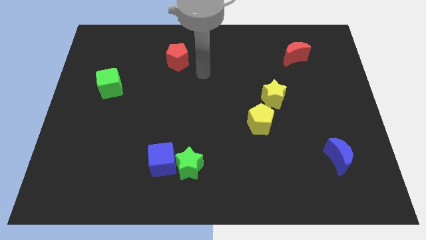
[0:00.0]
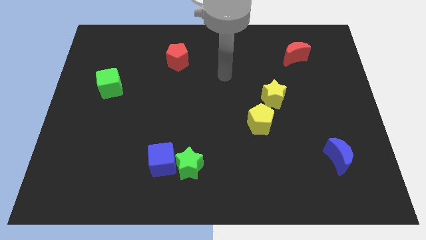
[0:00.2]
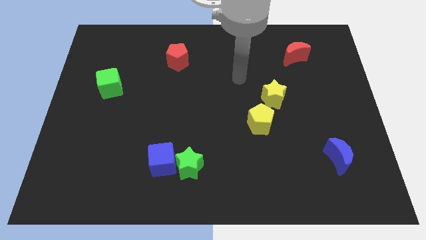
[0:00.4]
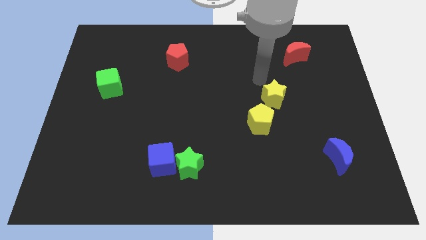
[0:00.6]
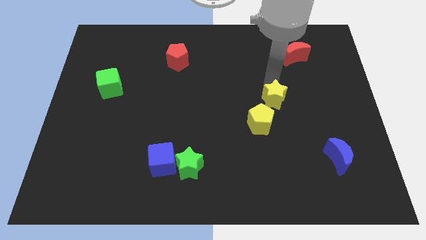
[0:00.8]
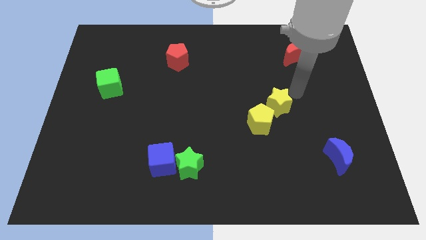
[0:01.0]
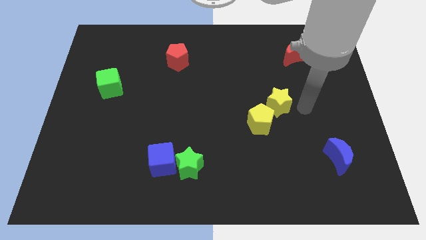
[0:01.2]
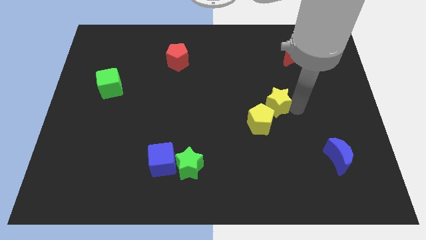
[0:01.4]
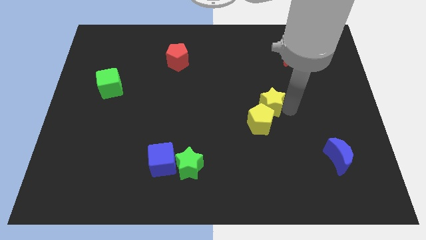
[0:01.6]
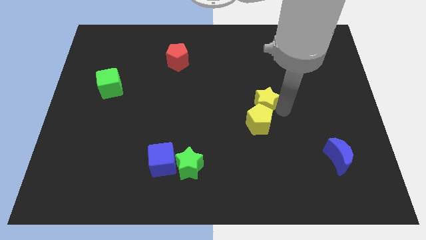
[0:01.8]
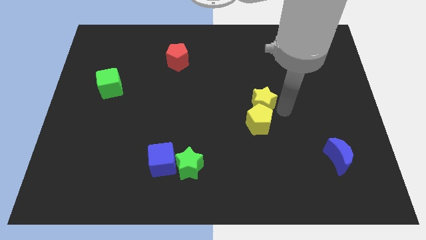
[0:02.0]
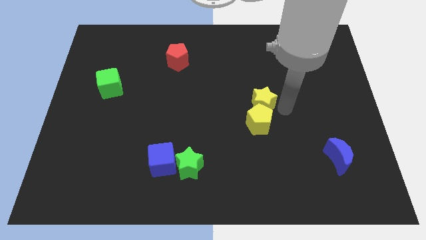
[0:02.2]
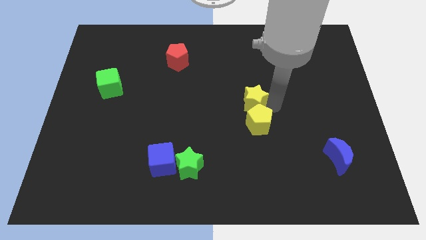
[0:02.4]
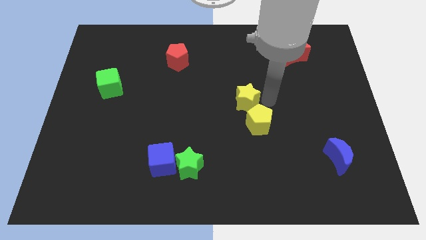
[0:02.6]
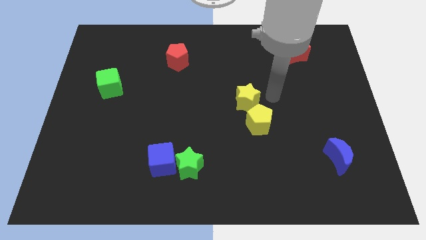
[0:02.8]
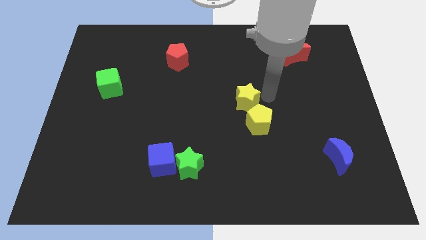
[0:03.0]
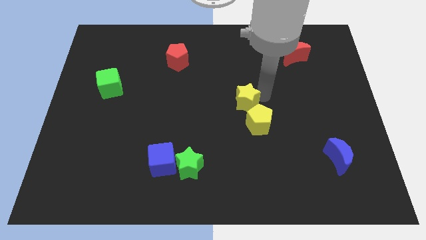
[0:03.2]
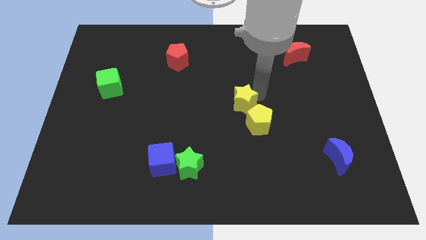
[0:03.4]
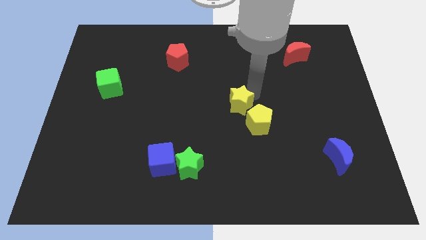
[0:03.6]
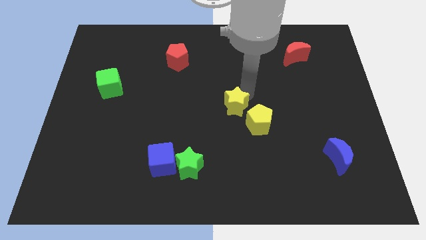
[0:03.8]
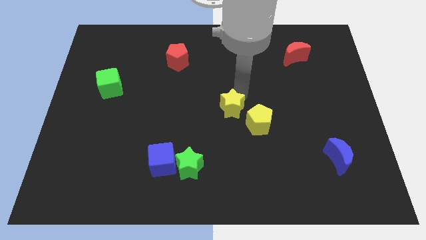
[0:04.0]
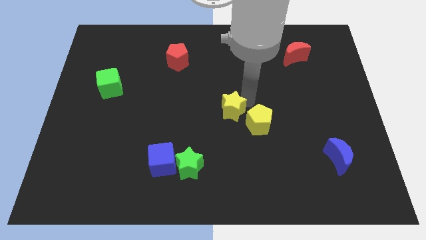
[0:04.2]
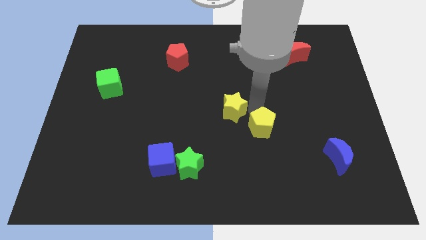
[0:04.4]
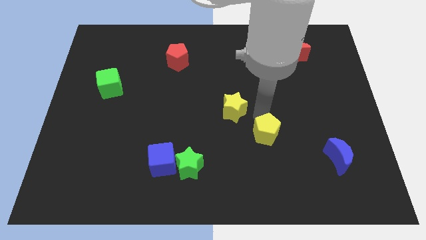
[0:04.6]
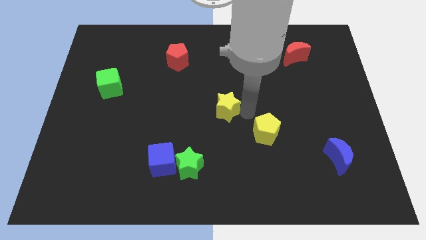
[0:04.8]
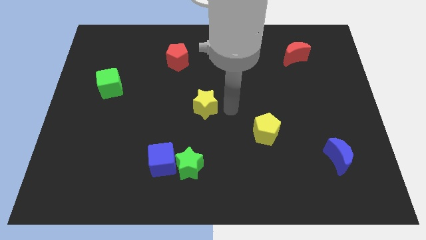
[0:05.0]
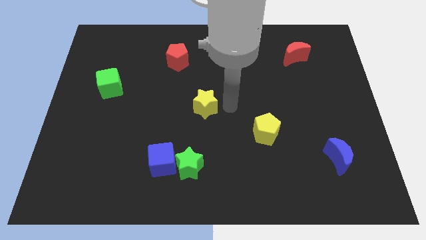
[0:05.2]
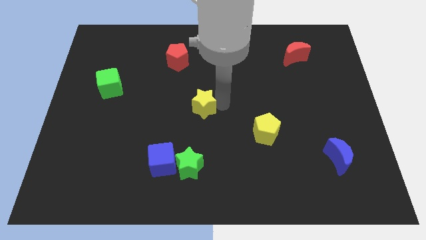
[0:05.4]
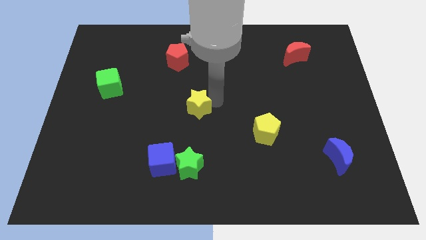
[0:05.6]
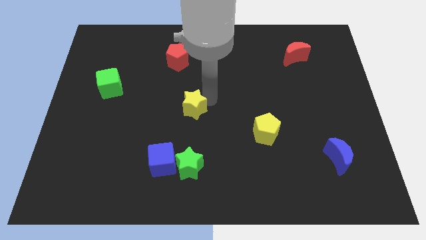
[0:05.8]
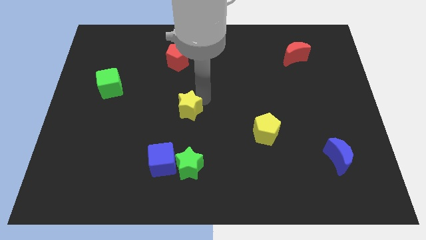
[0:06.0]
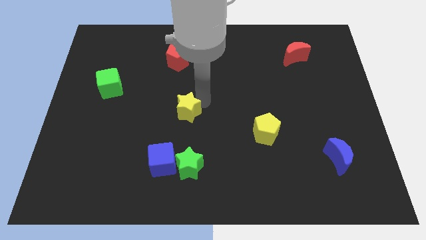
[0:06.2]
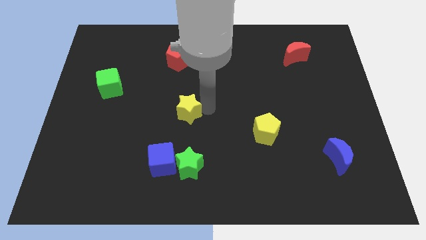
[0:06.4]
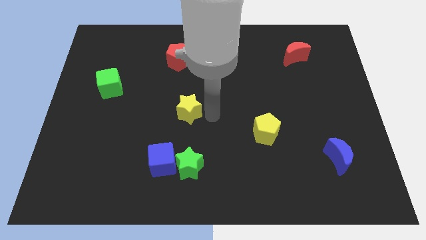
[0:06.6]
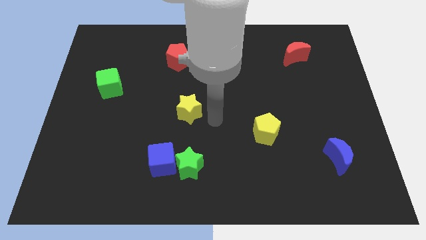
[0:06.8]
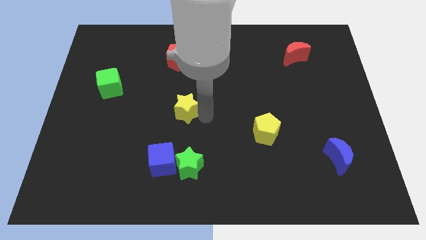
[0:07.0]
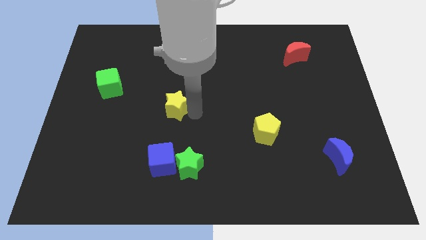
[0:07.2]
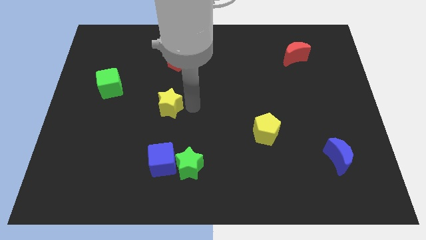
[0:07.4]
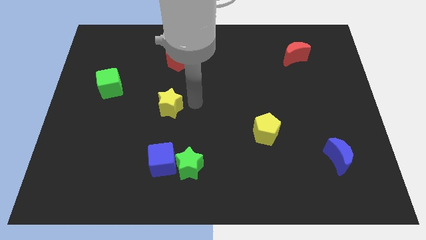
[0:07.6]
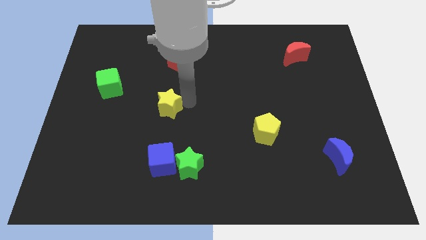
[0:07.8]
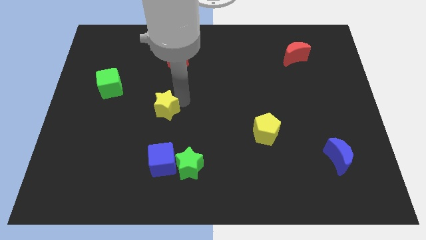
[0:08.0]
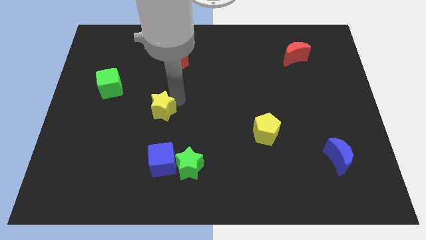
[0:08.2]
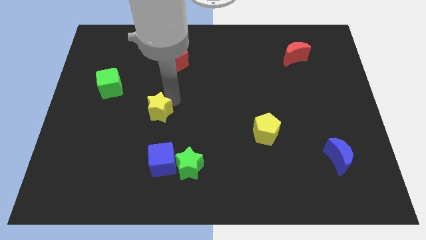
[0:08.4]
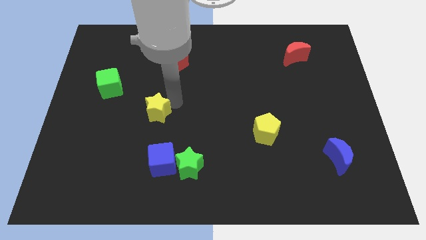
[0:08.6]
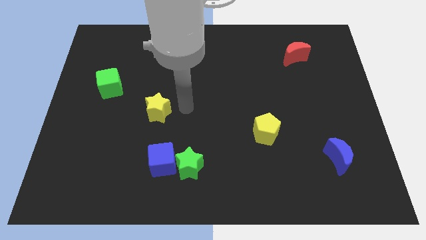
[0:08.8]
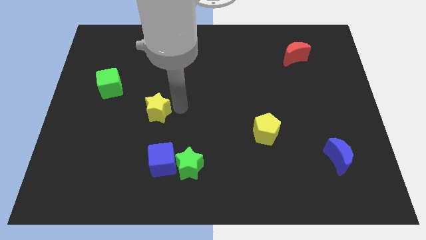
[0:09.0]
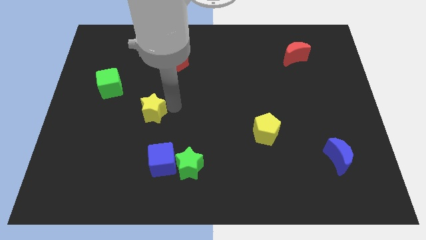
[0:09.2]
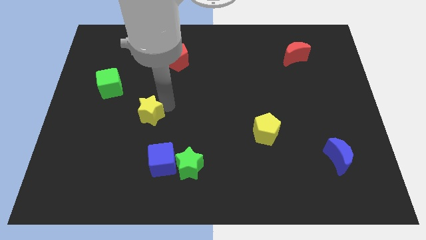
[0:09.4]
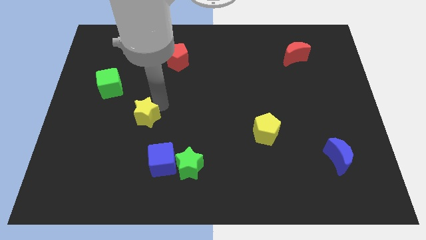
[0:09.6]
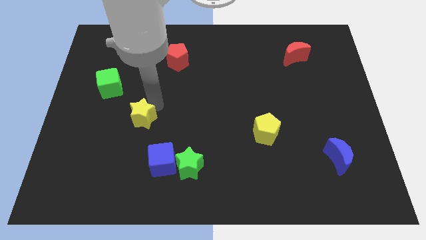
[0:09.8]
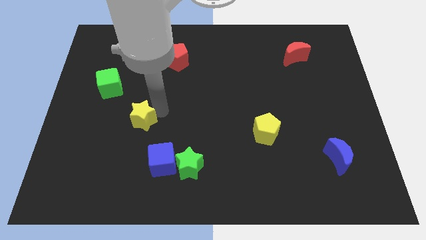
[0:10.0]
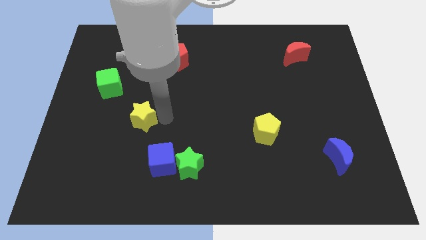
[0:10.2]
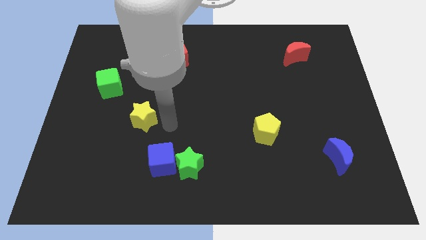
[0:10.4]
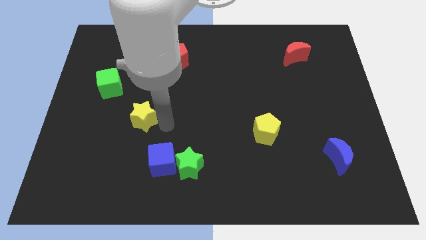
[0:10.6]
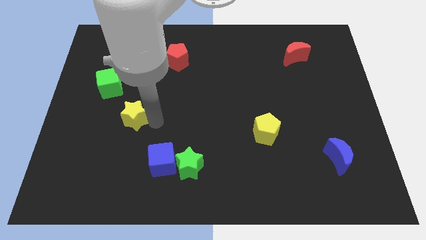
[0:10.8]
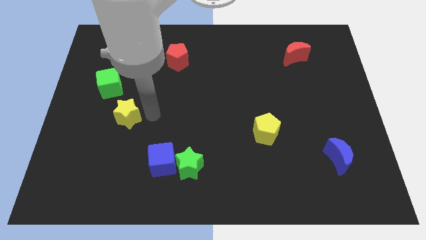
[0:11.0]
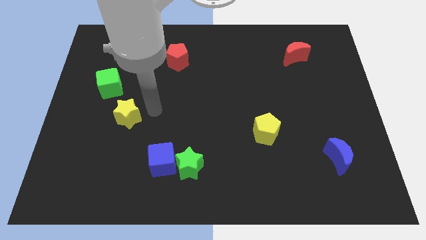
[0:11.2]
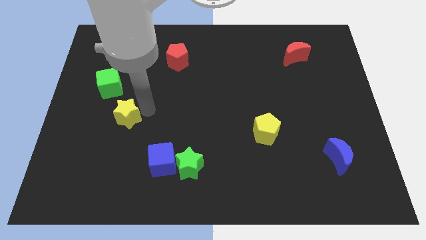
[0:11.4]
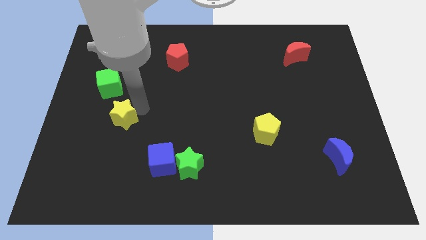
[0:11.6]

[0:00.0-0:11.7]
slide the yellow star to the bottom side of the green cube

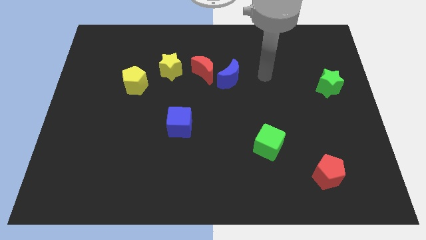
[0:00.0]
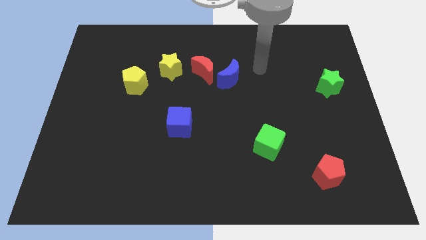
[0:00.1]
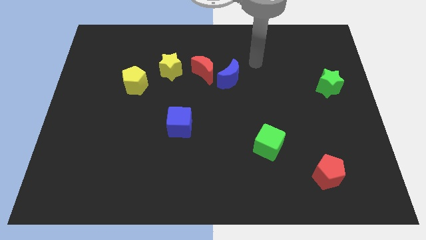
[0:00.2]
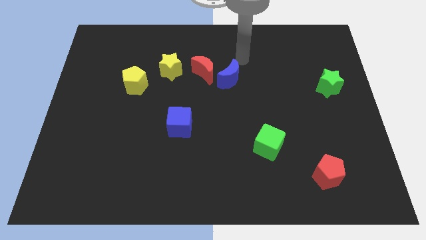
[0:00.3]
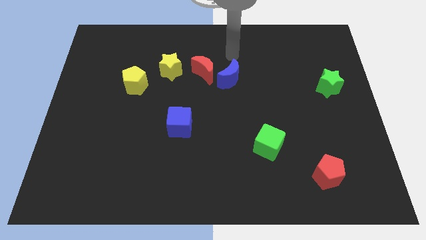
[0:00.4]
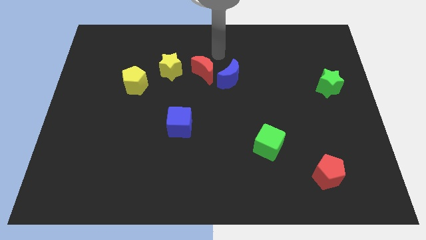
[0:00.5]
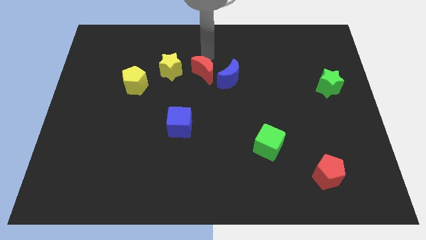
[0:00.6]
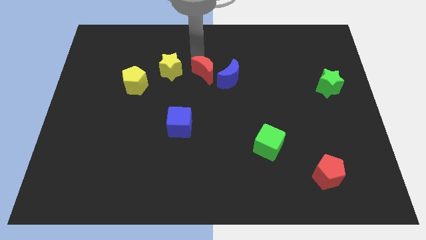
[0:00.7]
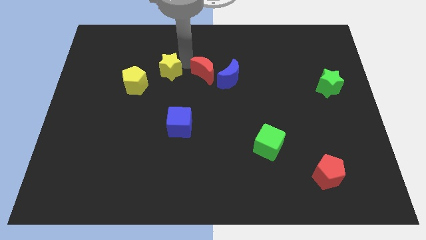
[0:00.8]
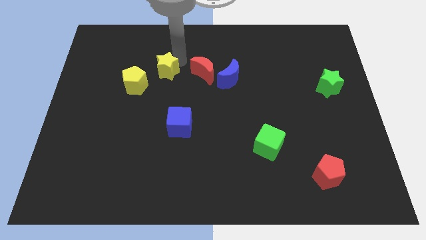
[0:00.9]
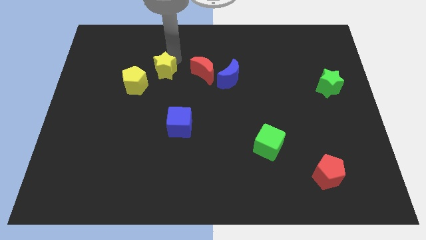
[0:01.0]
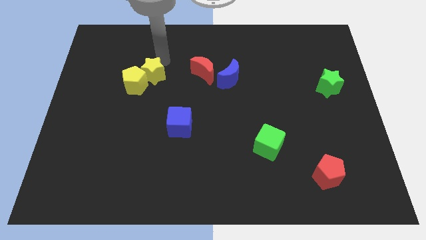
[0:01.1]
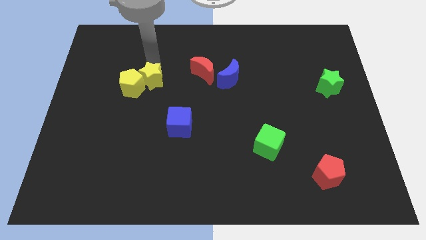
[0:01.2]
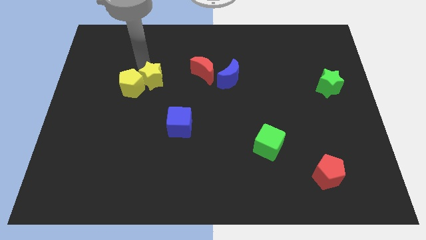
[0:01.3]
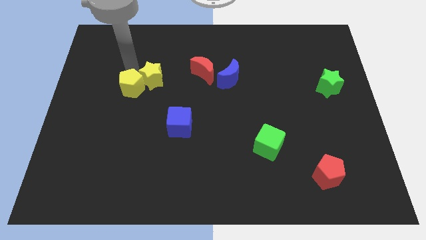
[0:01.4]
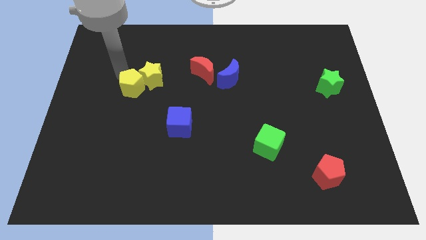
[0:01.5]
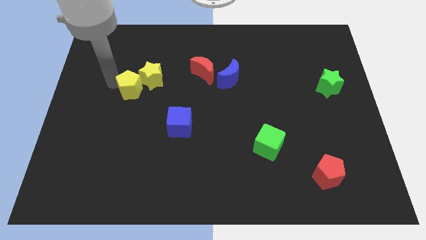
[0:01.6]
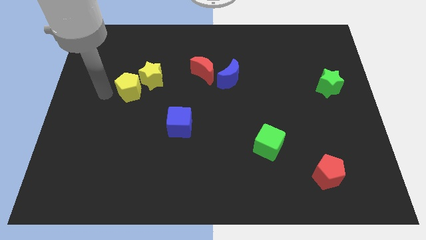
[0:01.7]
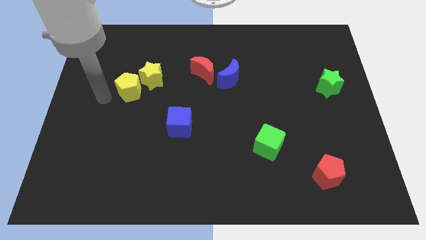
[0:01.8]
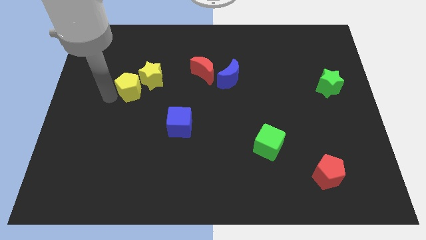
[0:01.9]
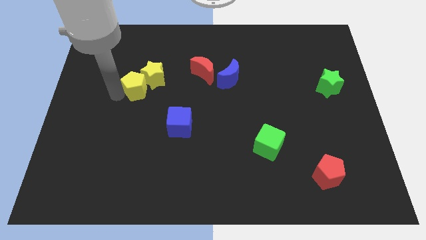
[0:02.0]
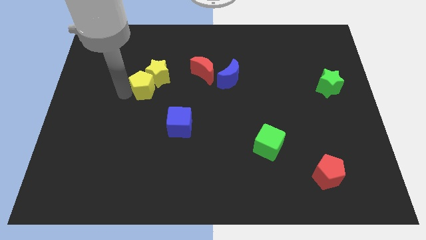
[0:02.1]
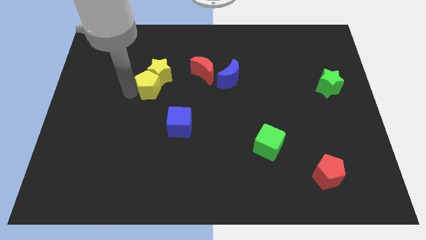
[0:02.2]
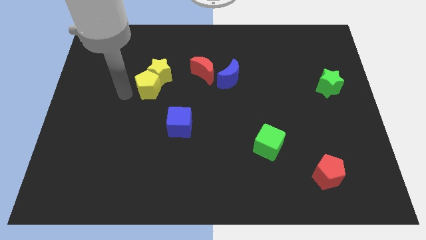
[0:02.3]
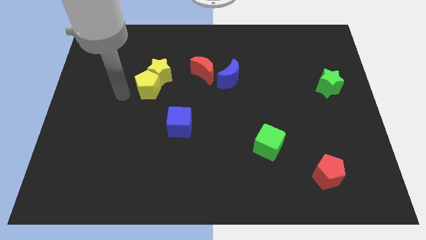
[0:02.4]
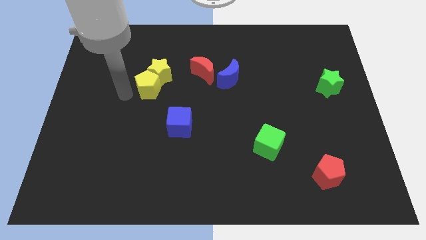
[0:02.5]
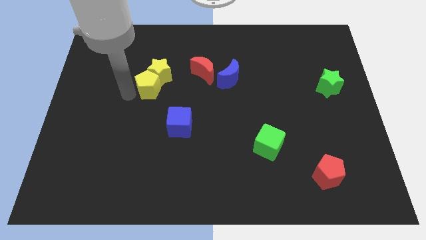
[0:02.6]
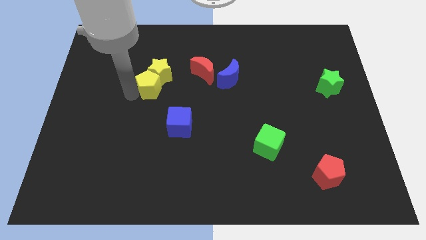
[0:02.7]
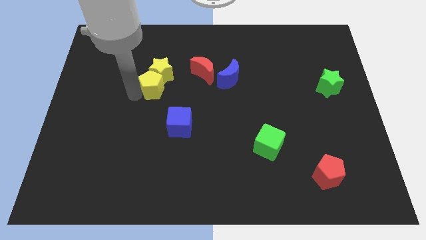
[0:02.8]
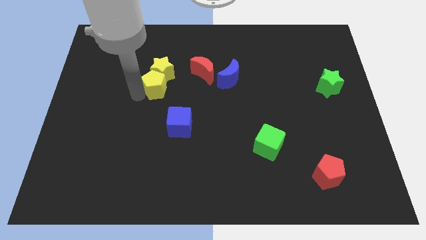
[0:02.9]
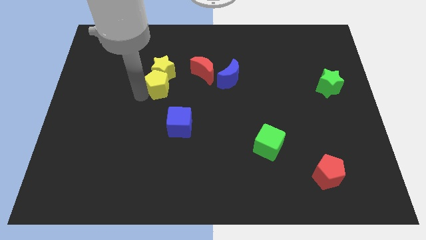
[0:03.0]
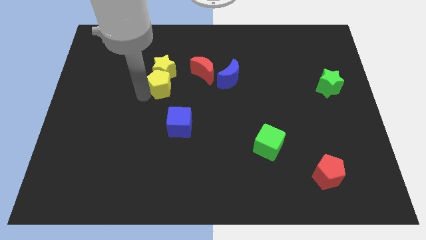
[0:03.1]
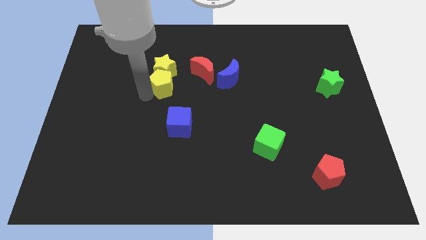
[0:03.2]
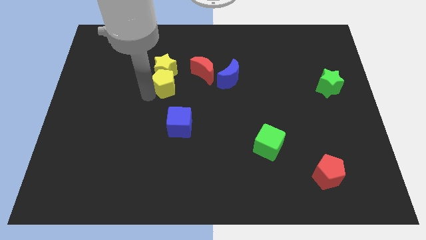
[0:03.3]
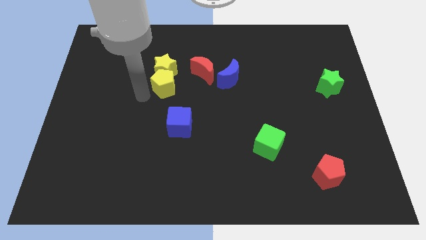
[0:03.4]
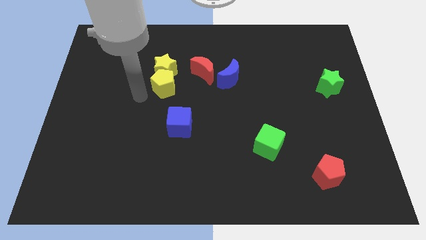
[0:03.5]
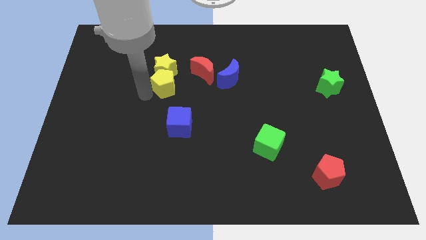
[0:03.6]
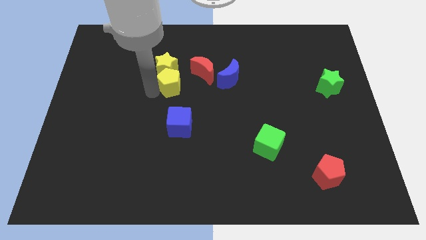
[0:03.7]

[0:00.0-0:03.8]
move the yellow pentagon left of the blue moon
